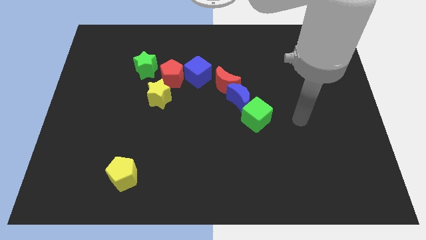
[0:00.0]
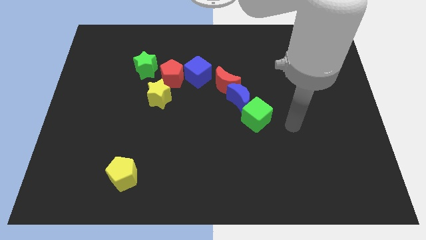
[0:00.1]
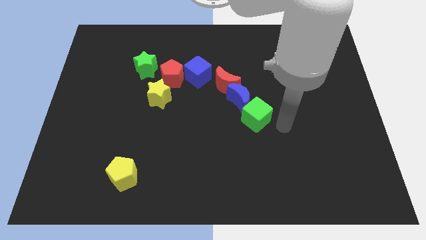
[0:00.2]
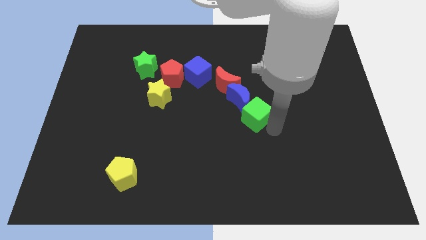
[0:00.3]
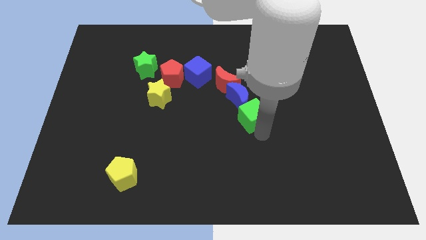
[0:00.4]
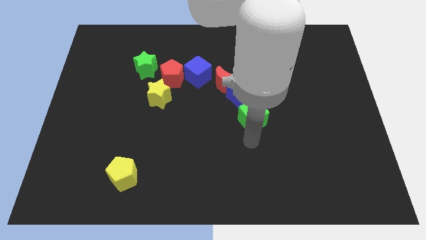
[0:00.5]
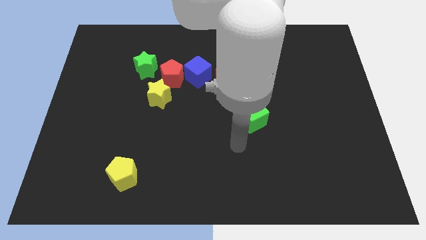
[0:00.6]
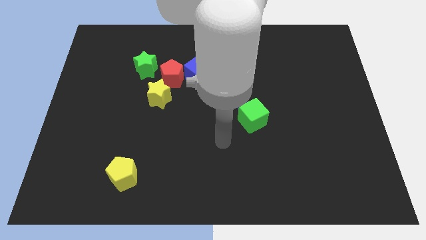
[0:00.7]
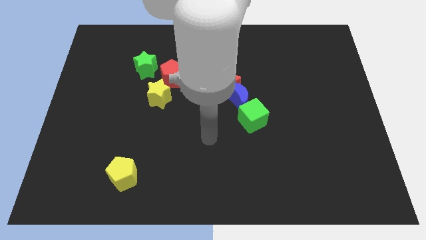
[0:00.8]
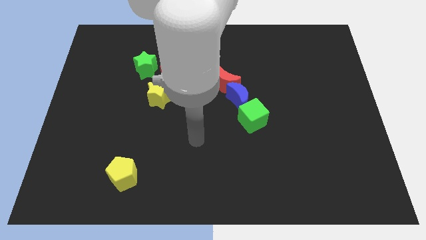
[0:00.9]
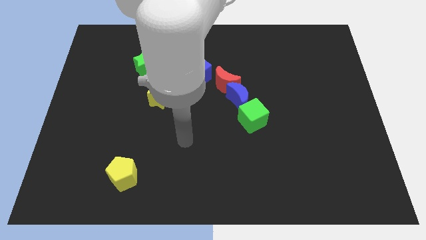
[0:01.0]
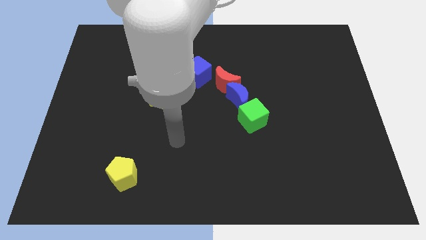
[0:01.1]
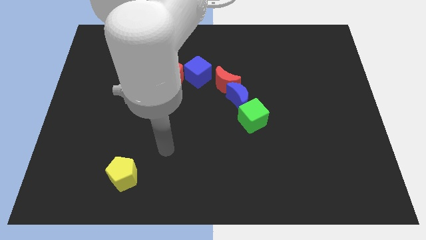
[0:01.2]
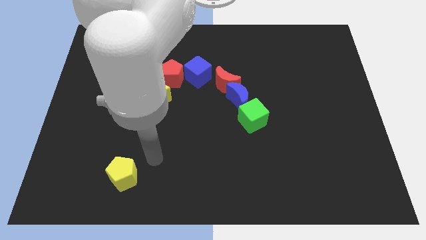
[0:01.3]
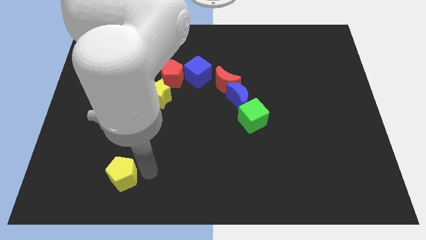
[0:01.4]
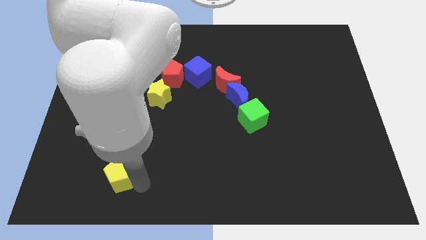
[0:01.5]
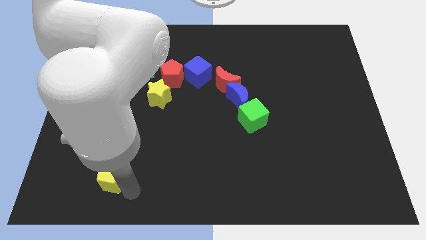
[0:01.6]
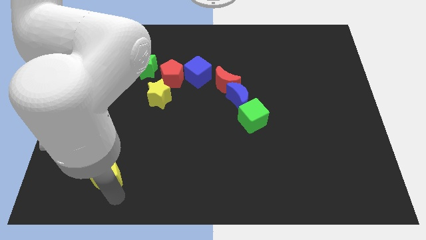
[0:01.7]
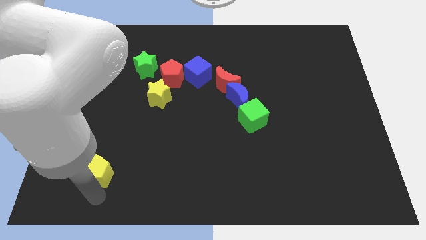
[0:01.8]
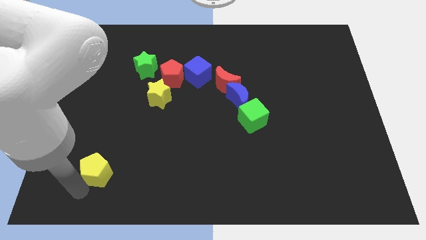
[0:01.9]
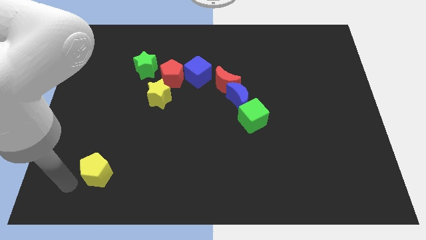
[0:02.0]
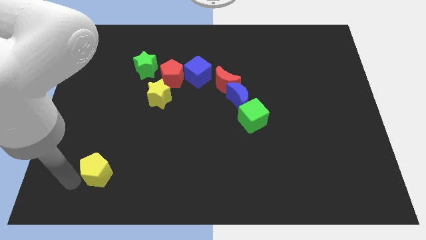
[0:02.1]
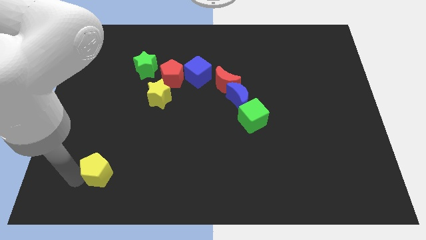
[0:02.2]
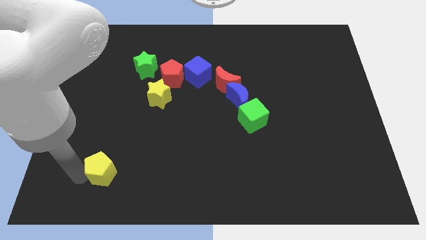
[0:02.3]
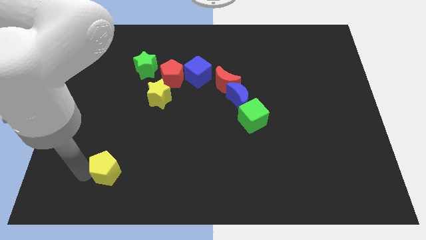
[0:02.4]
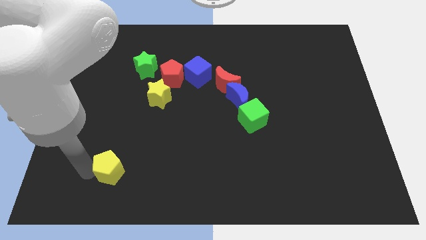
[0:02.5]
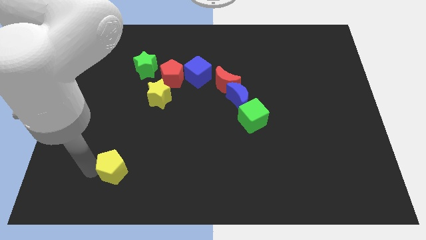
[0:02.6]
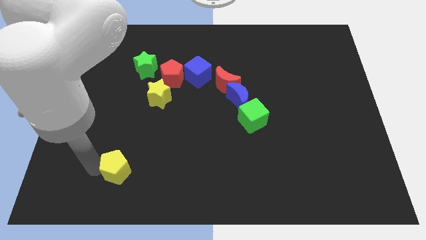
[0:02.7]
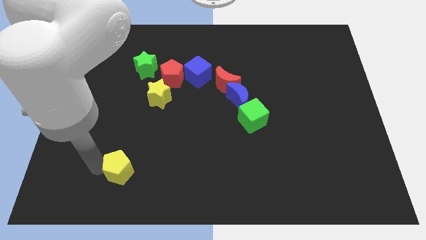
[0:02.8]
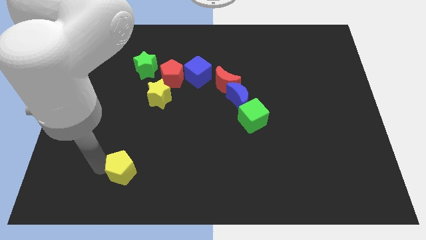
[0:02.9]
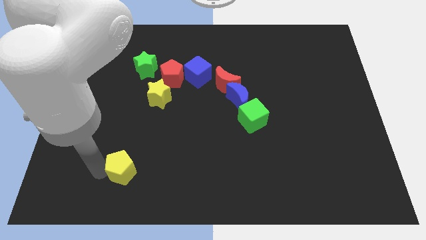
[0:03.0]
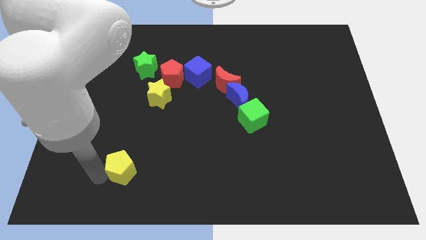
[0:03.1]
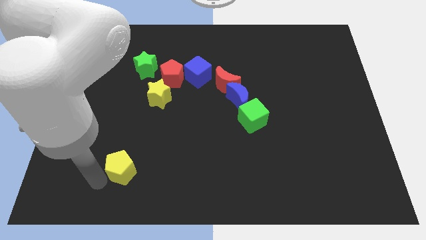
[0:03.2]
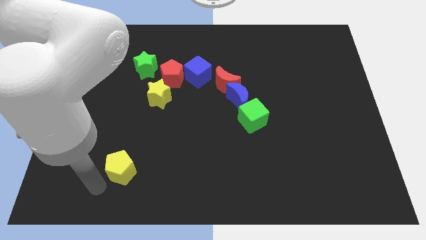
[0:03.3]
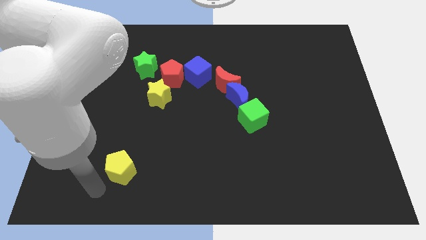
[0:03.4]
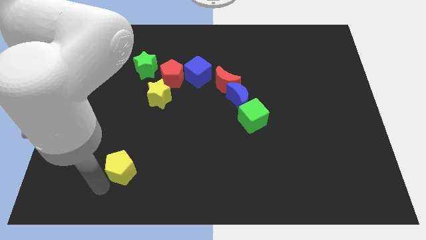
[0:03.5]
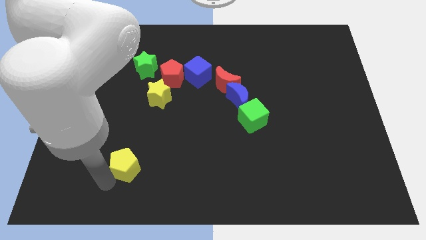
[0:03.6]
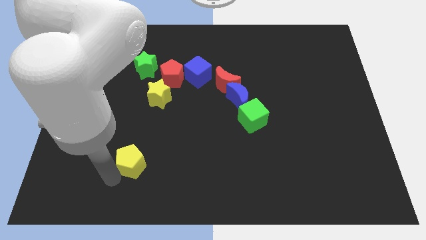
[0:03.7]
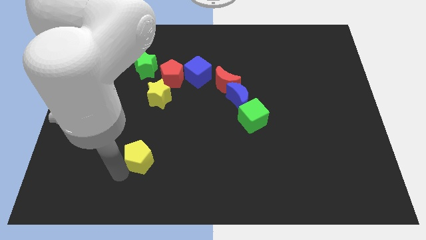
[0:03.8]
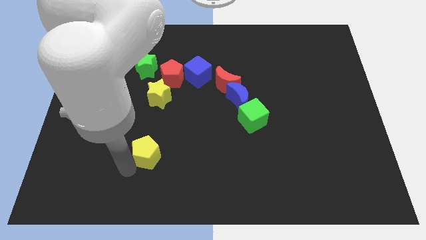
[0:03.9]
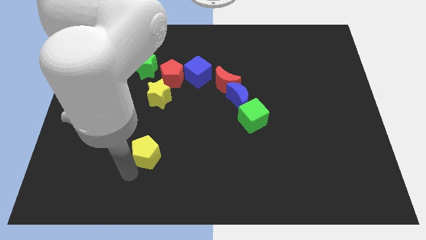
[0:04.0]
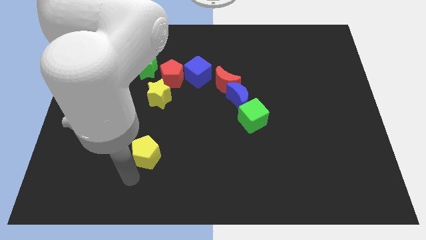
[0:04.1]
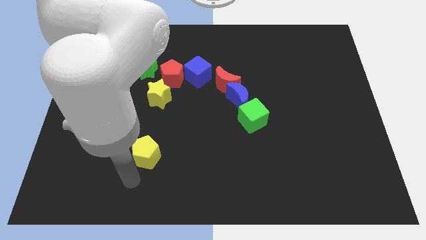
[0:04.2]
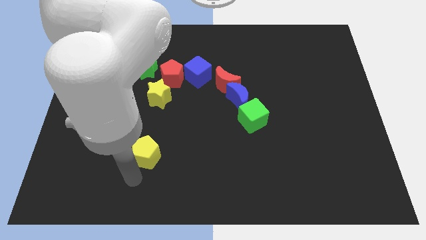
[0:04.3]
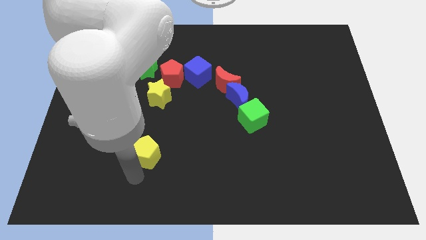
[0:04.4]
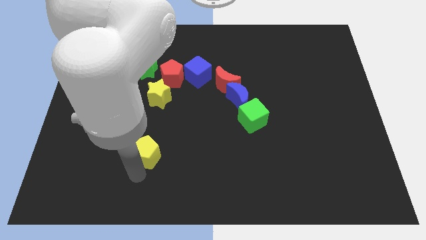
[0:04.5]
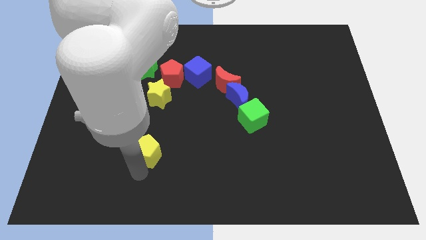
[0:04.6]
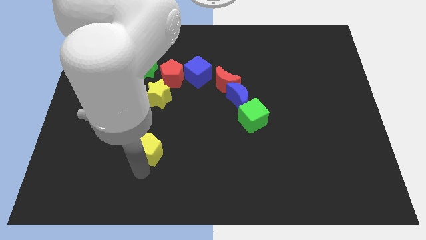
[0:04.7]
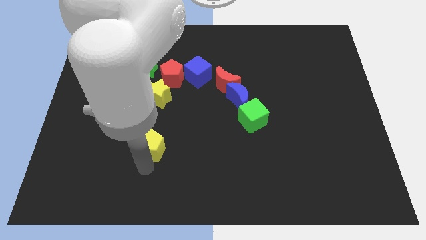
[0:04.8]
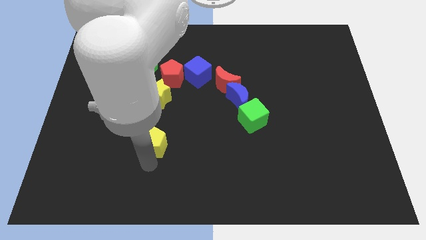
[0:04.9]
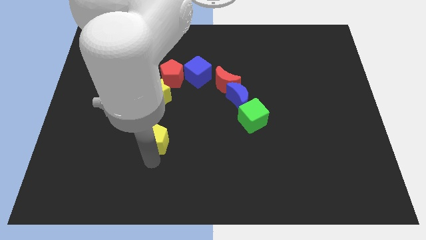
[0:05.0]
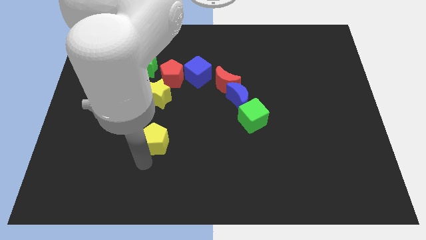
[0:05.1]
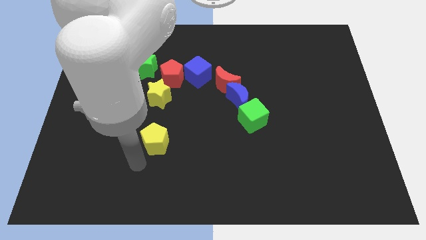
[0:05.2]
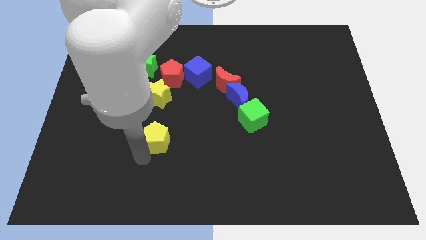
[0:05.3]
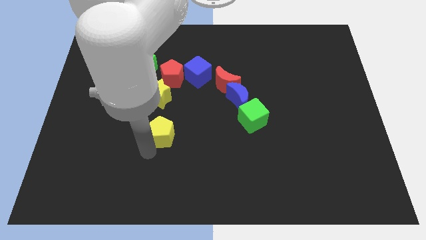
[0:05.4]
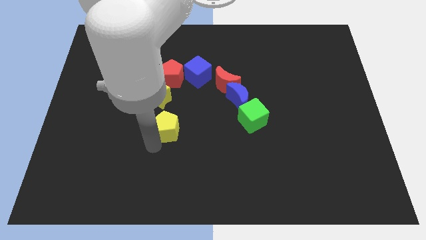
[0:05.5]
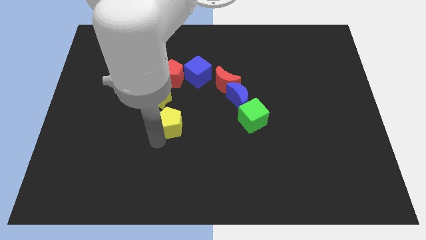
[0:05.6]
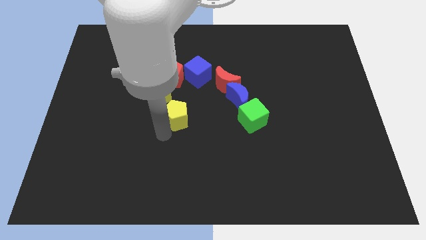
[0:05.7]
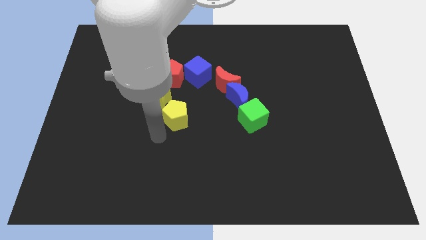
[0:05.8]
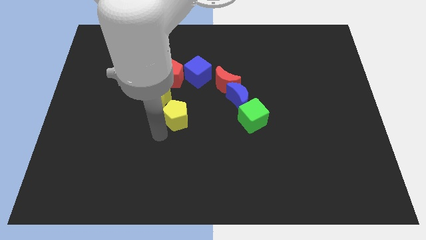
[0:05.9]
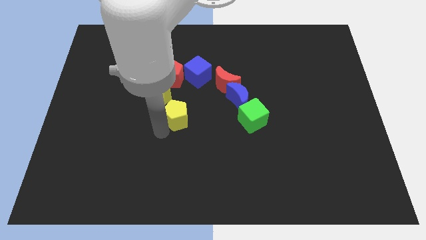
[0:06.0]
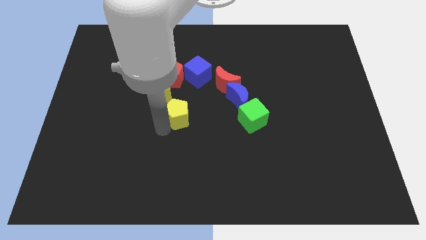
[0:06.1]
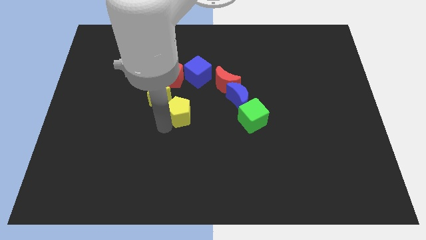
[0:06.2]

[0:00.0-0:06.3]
push the yellow pentagon just left of the blue moon
